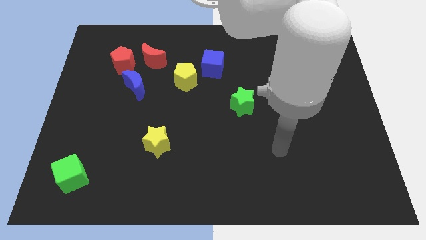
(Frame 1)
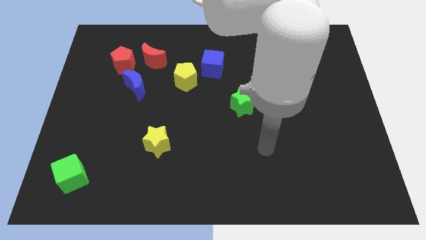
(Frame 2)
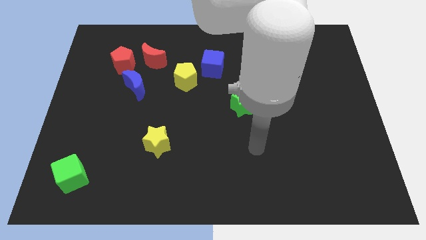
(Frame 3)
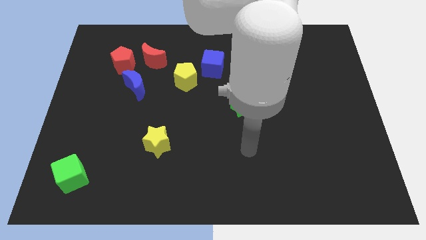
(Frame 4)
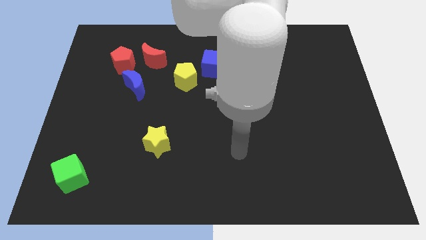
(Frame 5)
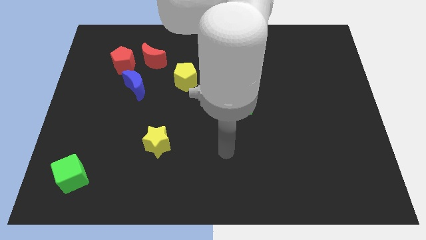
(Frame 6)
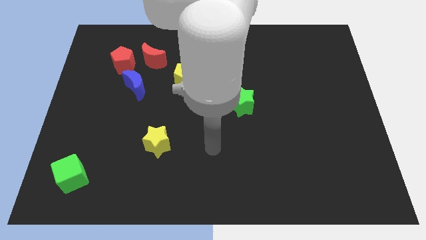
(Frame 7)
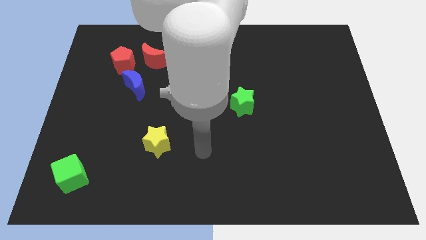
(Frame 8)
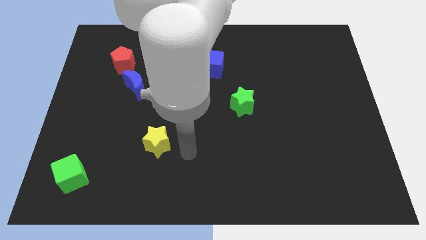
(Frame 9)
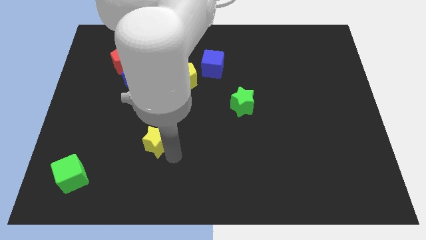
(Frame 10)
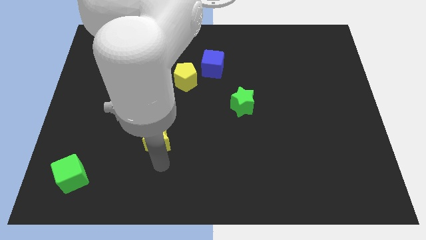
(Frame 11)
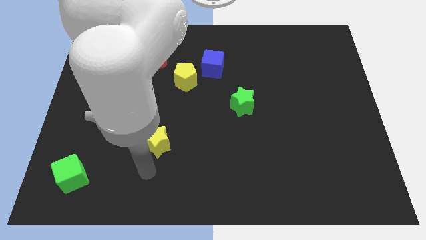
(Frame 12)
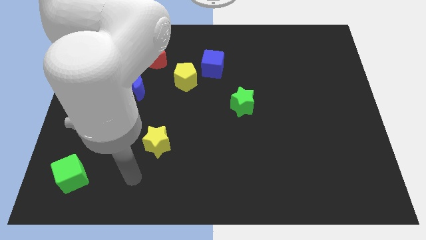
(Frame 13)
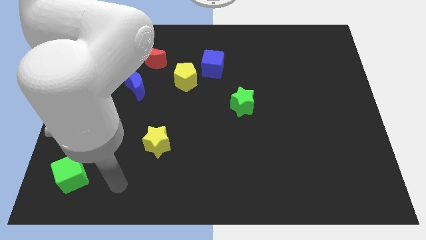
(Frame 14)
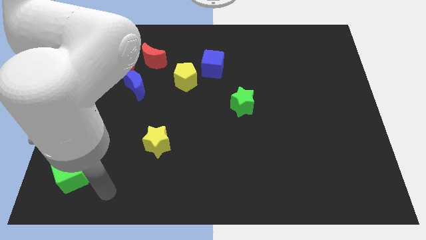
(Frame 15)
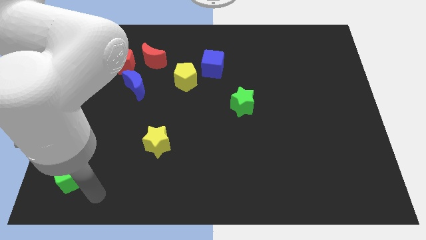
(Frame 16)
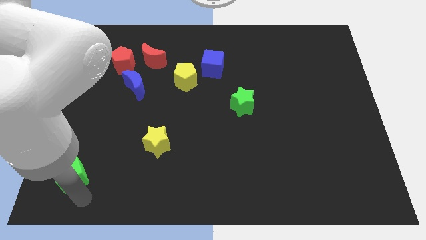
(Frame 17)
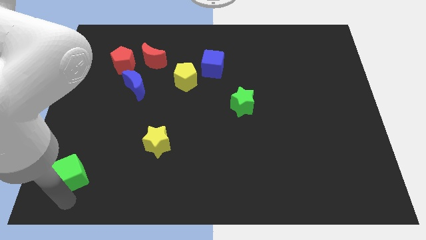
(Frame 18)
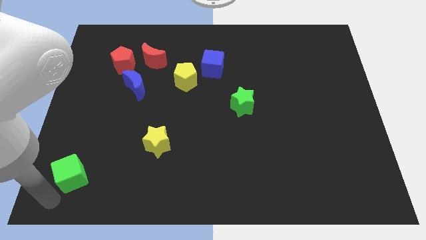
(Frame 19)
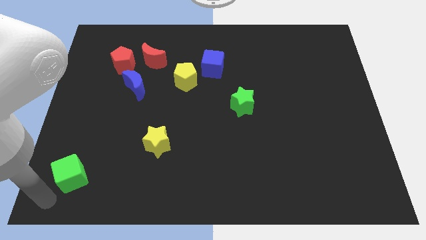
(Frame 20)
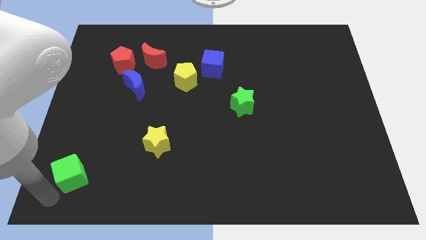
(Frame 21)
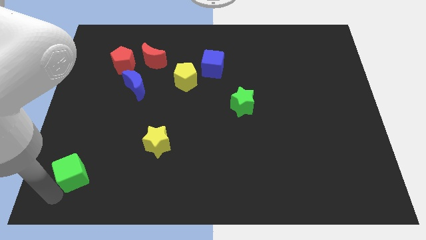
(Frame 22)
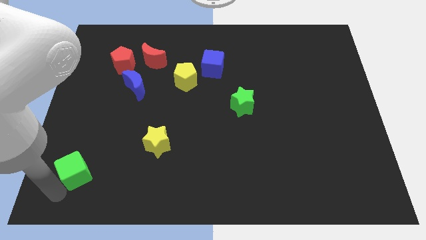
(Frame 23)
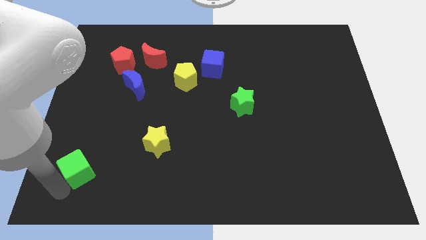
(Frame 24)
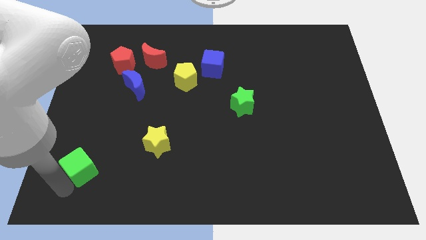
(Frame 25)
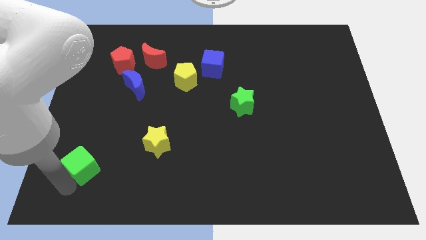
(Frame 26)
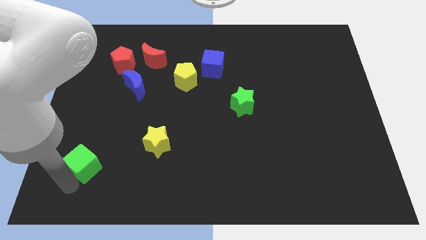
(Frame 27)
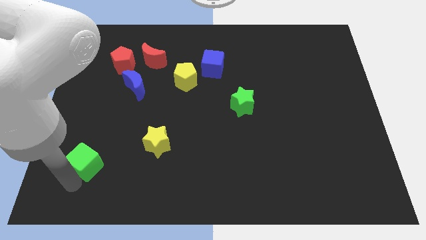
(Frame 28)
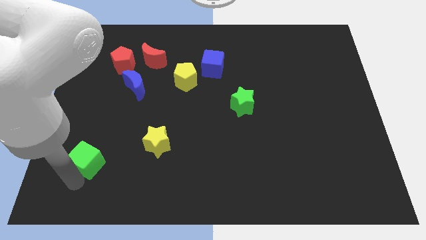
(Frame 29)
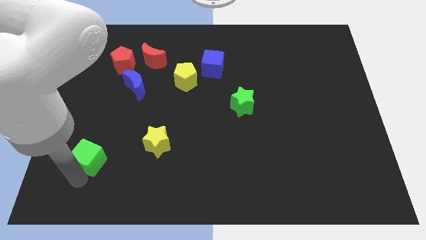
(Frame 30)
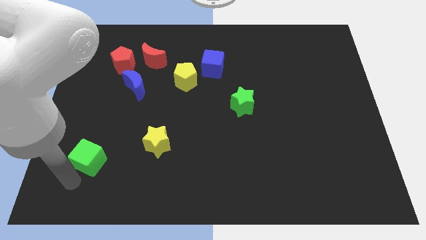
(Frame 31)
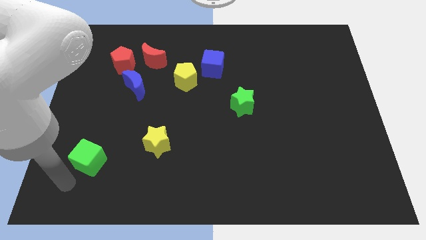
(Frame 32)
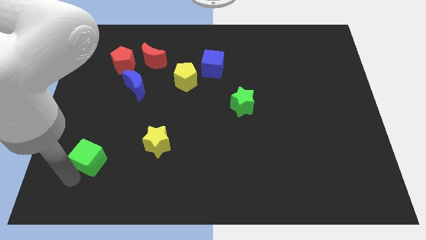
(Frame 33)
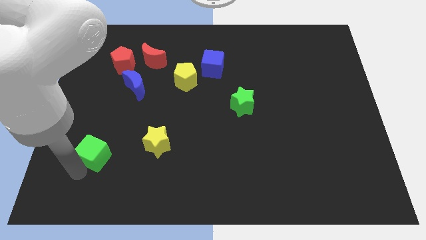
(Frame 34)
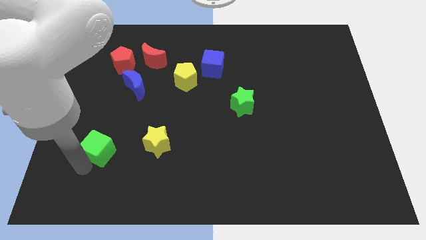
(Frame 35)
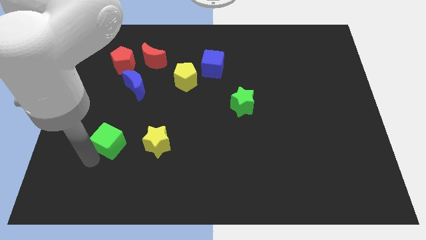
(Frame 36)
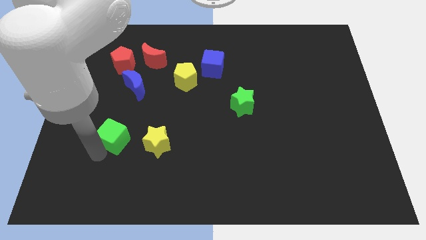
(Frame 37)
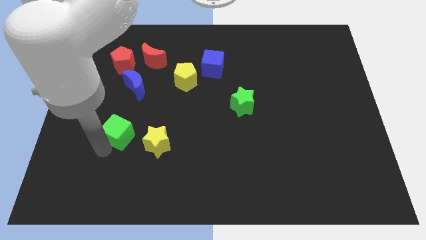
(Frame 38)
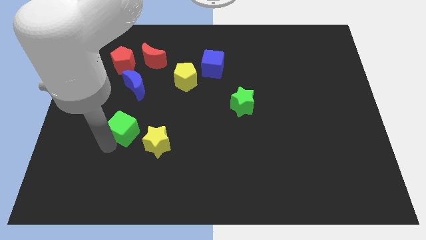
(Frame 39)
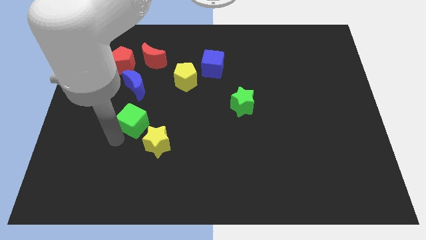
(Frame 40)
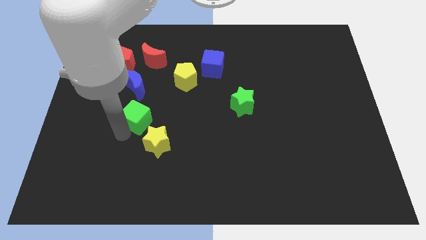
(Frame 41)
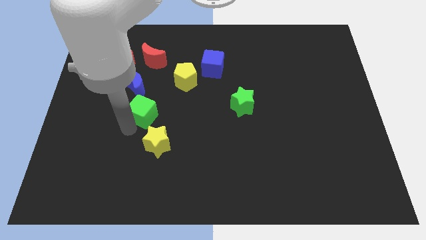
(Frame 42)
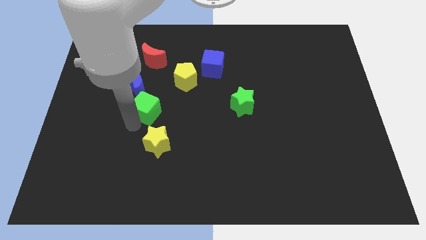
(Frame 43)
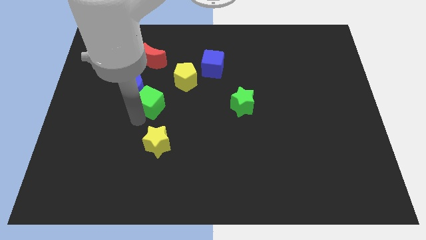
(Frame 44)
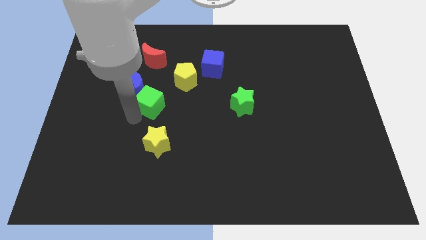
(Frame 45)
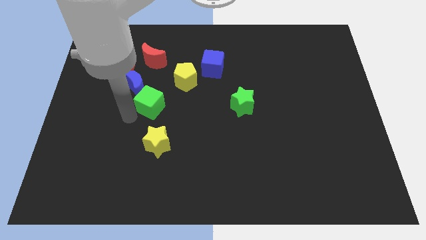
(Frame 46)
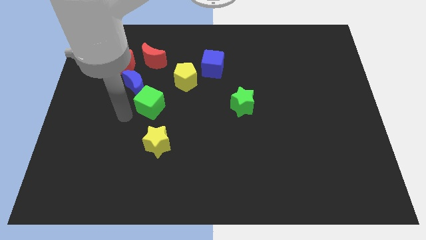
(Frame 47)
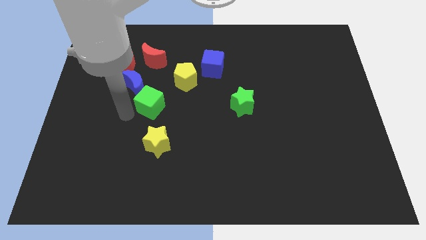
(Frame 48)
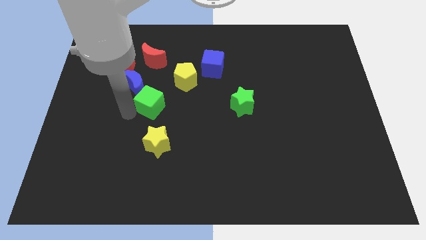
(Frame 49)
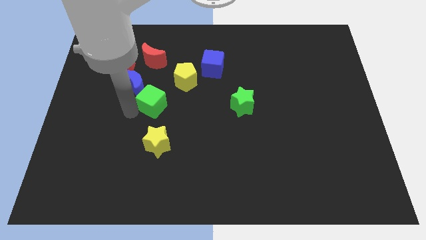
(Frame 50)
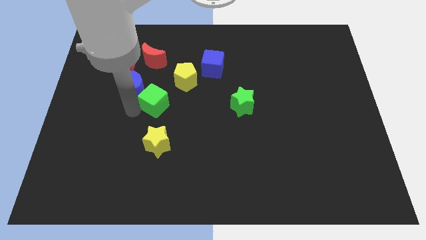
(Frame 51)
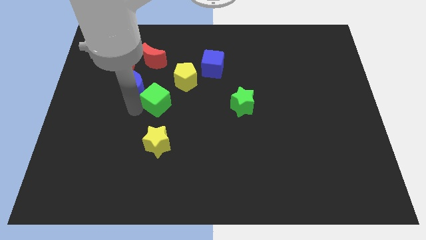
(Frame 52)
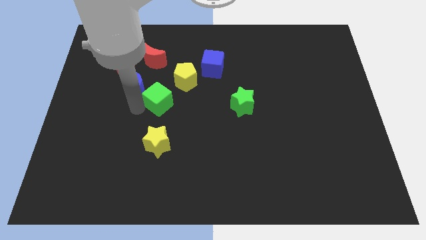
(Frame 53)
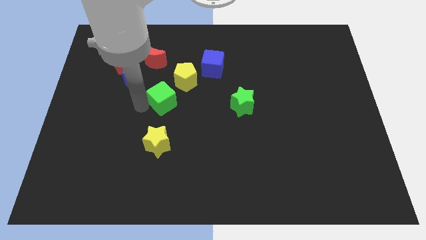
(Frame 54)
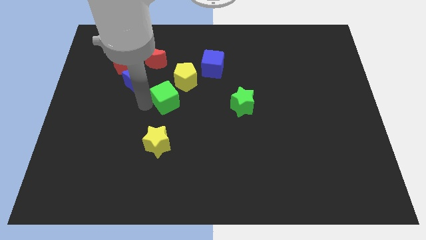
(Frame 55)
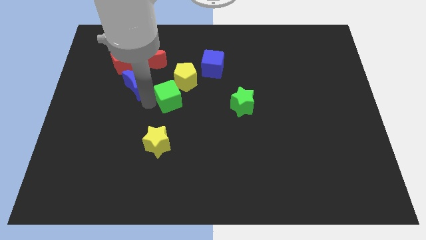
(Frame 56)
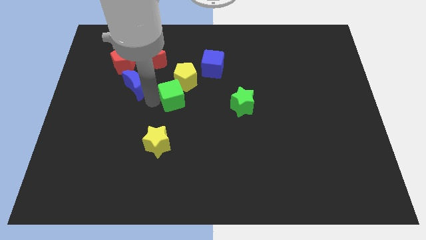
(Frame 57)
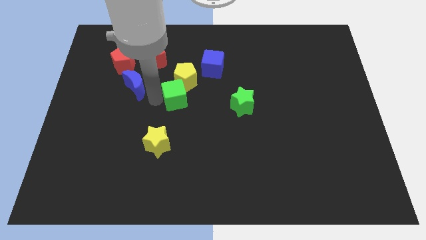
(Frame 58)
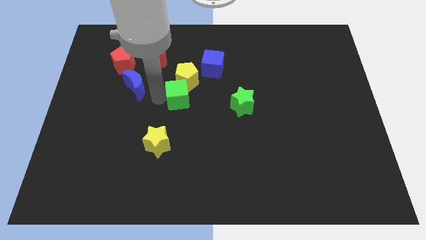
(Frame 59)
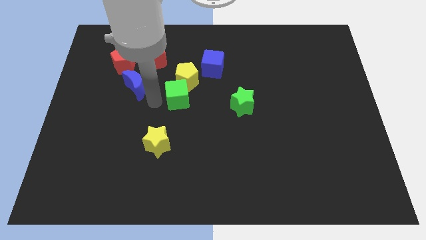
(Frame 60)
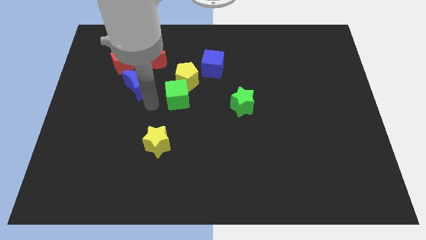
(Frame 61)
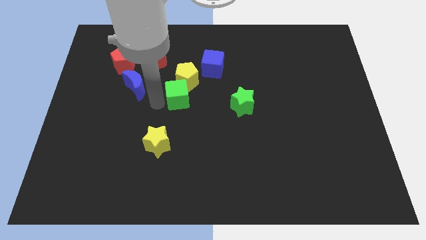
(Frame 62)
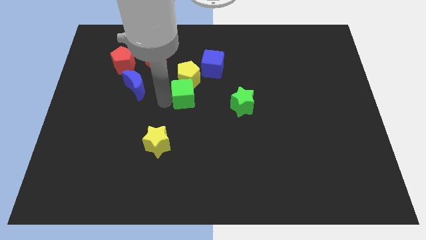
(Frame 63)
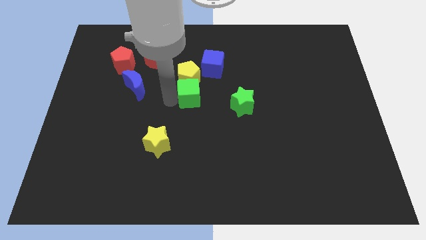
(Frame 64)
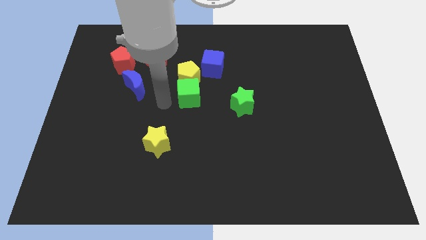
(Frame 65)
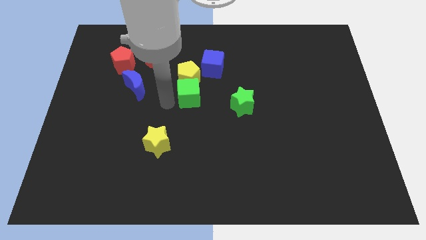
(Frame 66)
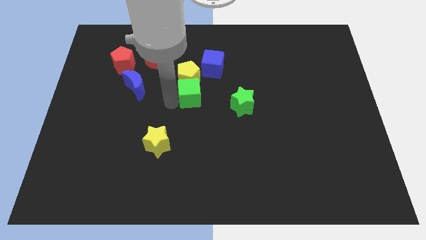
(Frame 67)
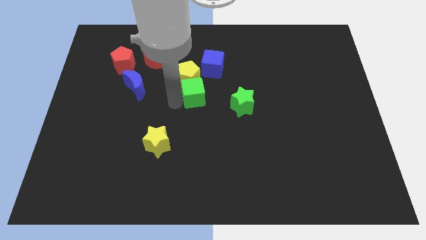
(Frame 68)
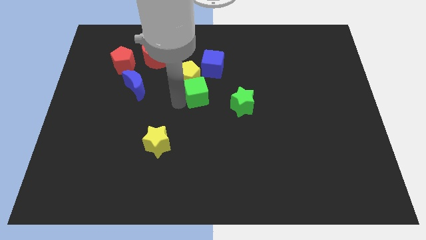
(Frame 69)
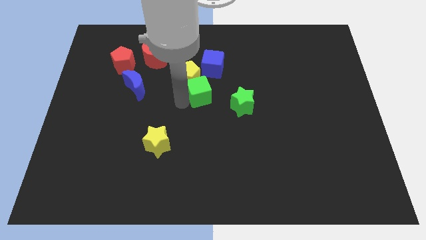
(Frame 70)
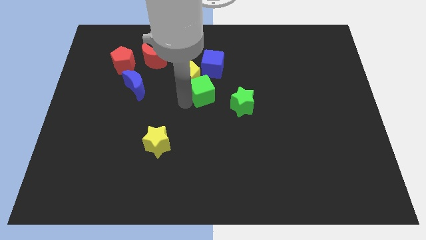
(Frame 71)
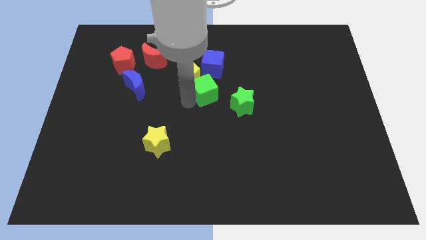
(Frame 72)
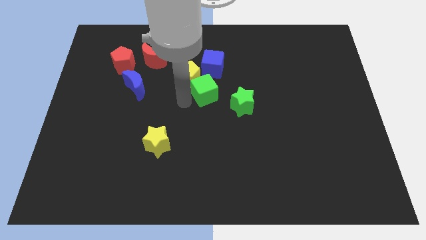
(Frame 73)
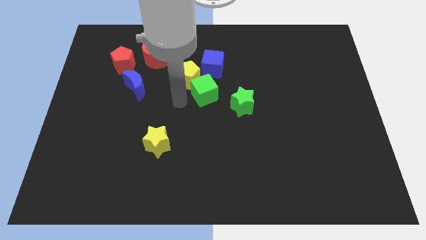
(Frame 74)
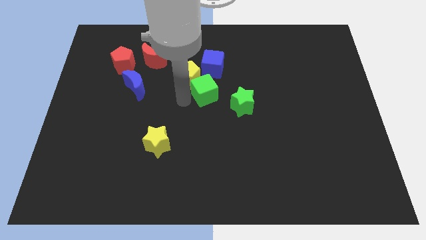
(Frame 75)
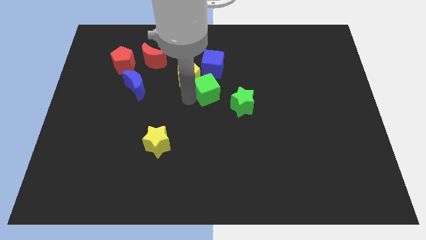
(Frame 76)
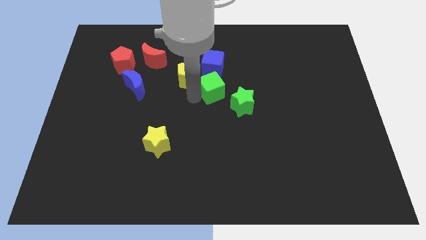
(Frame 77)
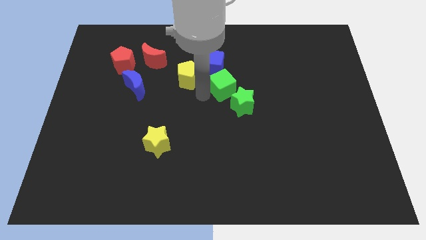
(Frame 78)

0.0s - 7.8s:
push the green cube to the top of the green star
